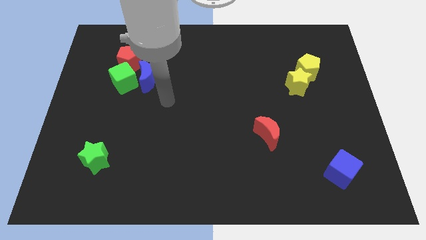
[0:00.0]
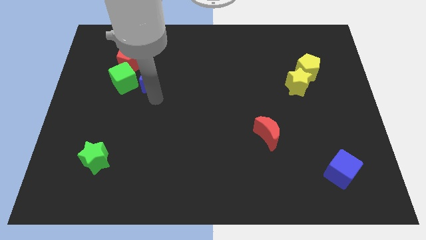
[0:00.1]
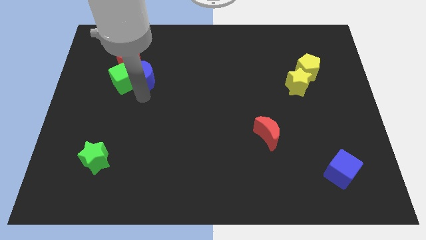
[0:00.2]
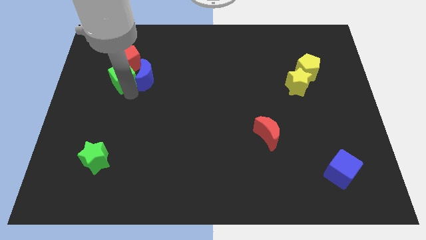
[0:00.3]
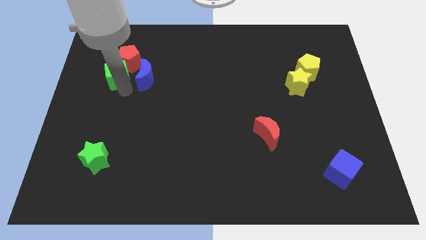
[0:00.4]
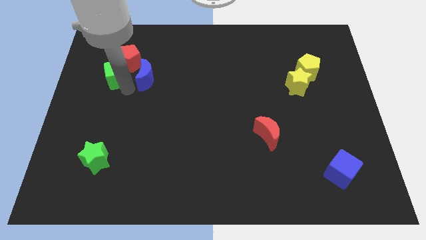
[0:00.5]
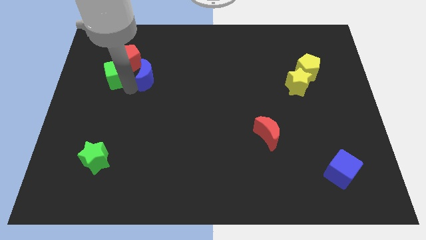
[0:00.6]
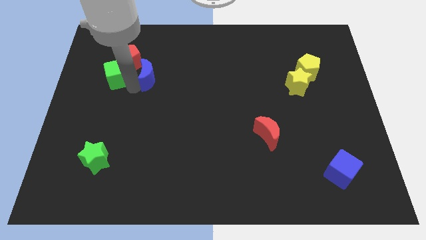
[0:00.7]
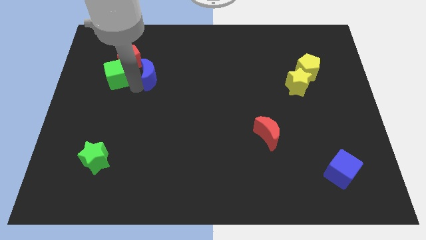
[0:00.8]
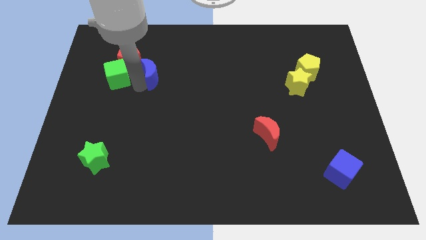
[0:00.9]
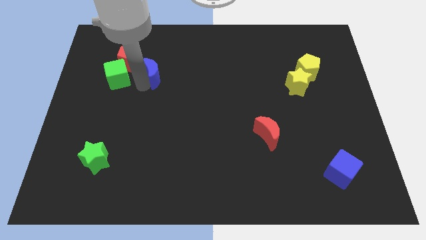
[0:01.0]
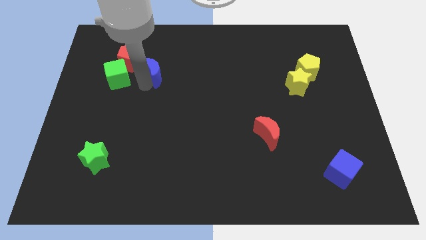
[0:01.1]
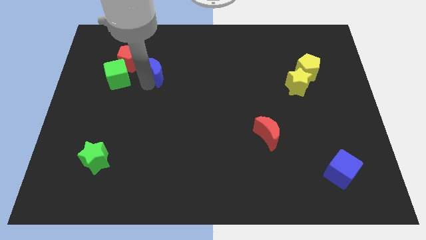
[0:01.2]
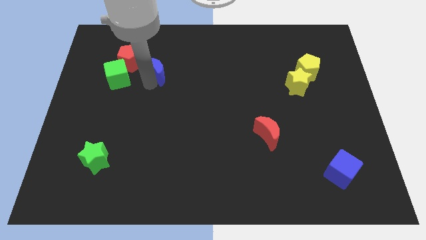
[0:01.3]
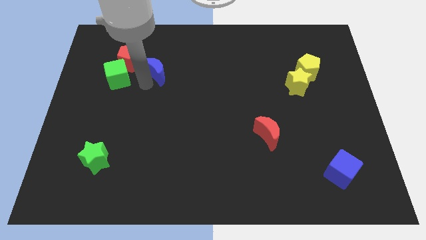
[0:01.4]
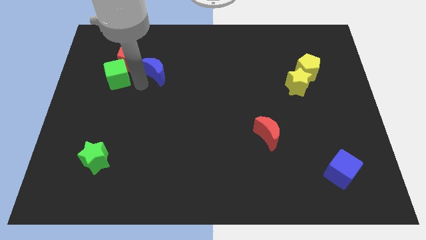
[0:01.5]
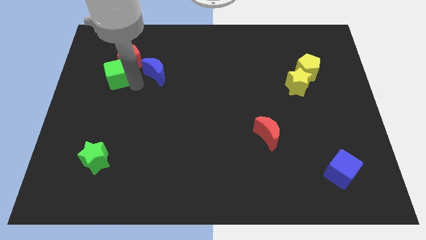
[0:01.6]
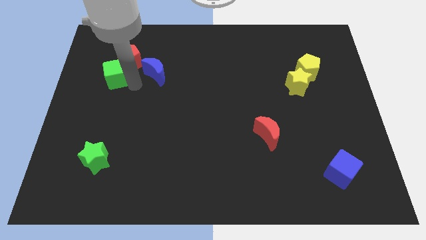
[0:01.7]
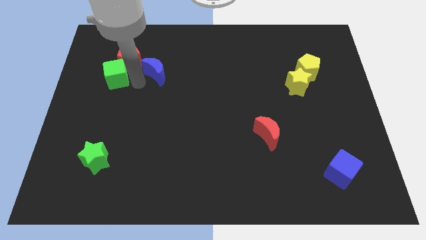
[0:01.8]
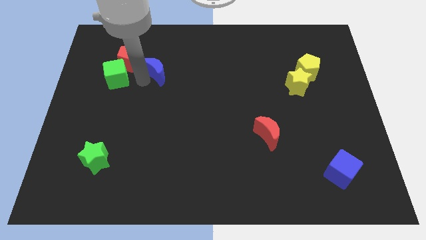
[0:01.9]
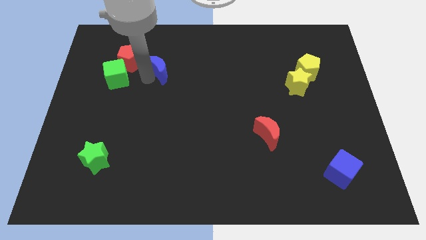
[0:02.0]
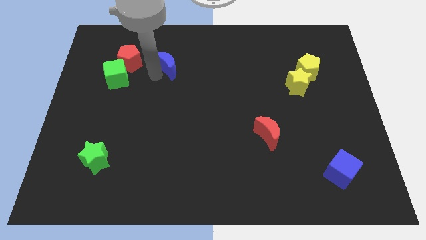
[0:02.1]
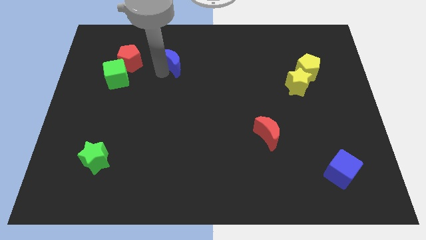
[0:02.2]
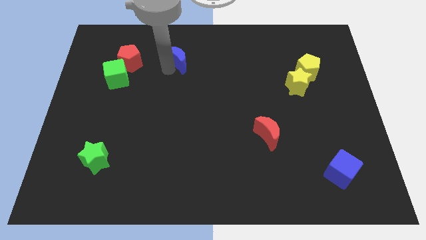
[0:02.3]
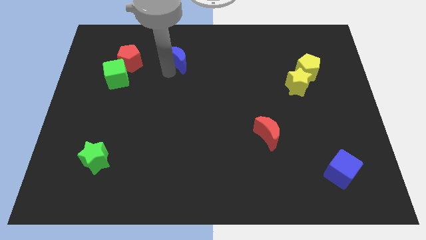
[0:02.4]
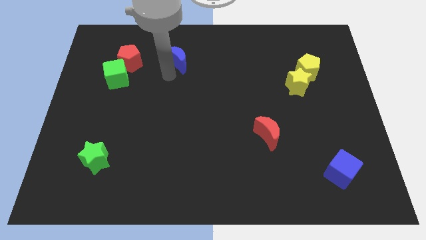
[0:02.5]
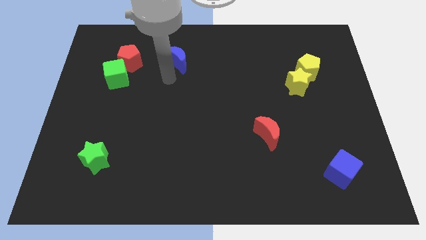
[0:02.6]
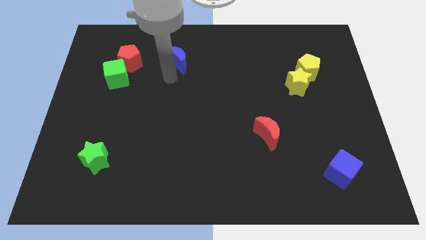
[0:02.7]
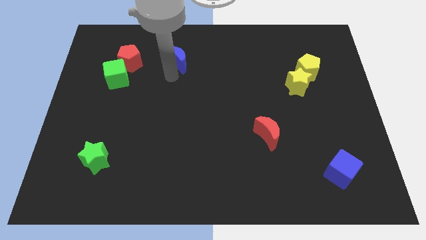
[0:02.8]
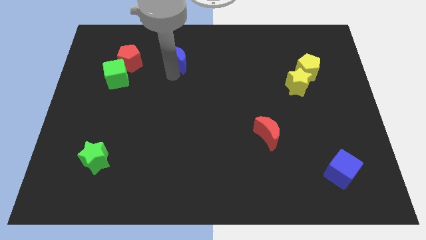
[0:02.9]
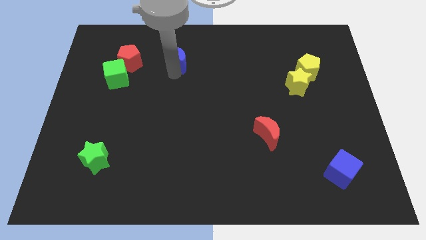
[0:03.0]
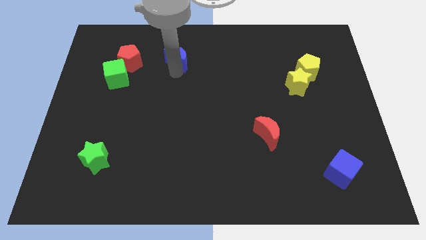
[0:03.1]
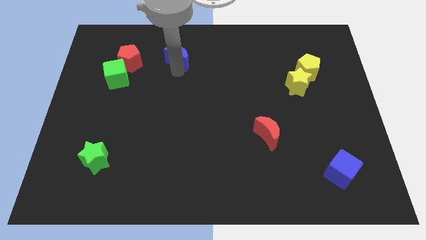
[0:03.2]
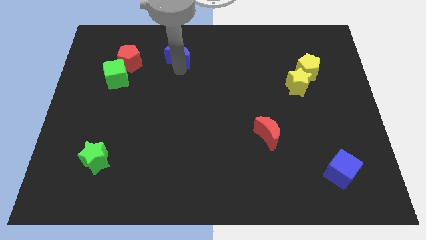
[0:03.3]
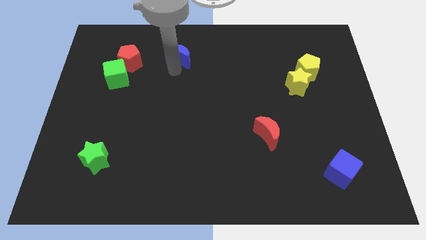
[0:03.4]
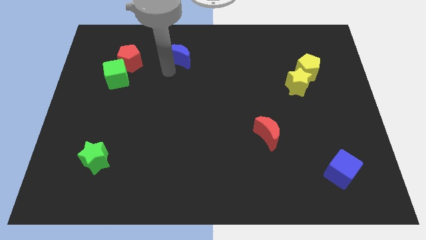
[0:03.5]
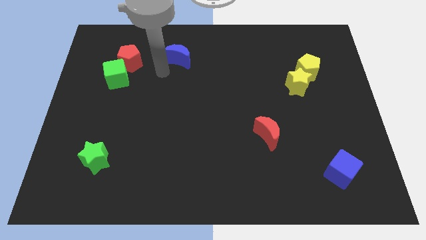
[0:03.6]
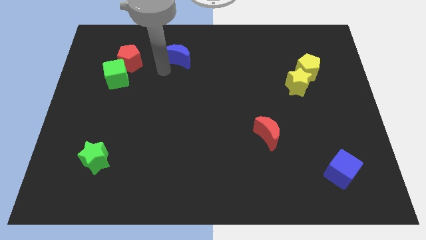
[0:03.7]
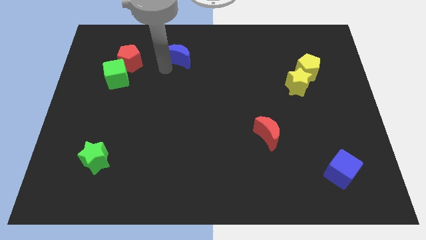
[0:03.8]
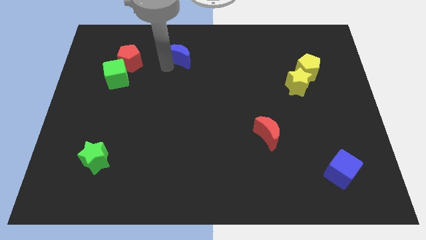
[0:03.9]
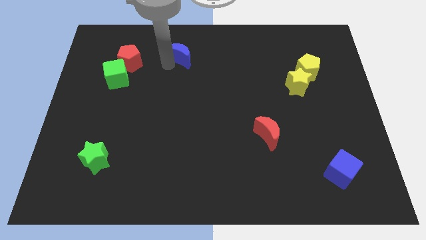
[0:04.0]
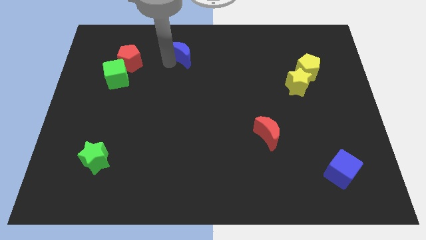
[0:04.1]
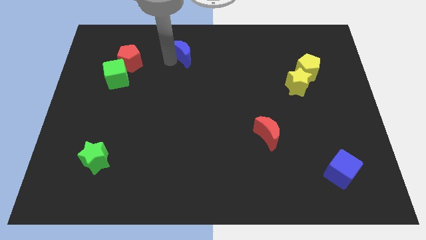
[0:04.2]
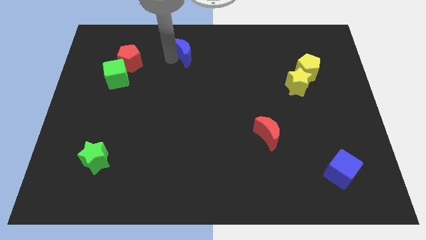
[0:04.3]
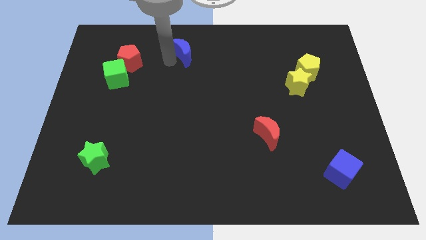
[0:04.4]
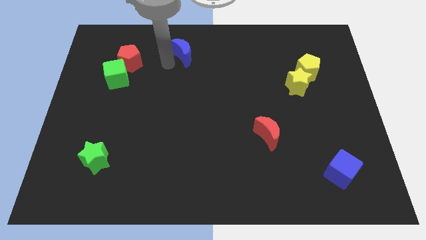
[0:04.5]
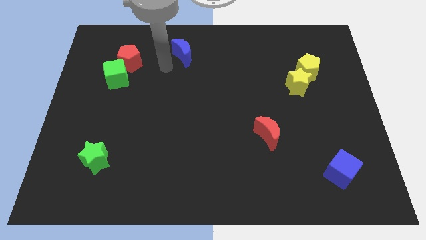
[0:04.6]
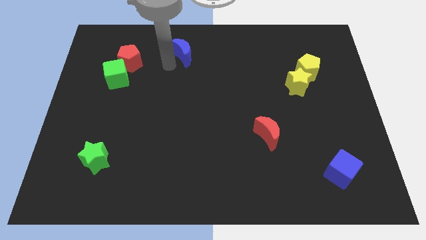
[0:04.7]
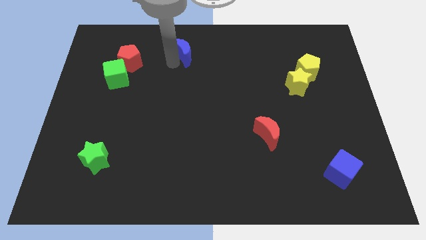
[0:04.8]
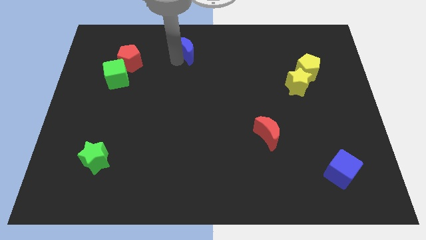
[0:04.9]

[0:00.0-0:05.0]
push the blue moon to the top side

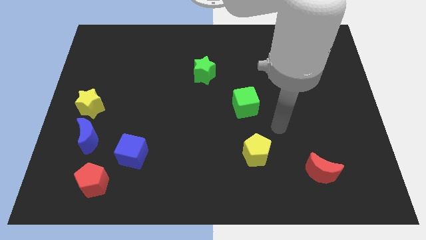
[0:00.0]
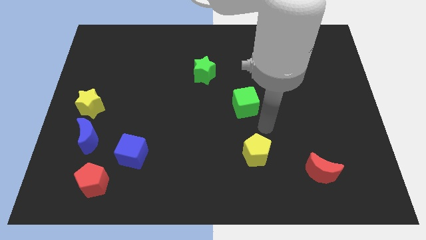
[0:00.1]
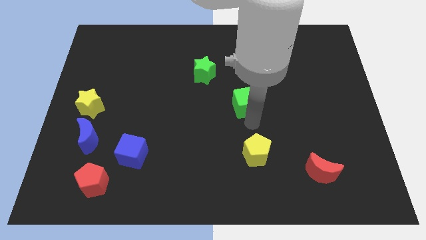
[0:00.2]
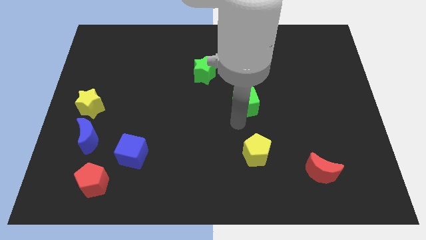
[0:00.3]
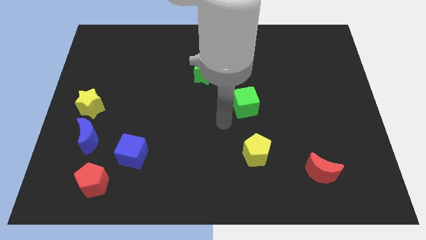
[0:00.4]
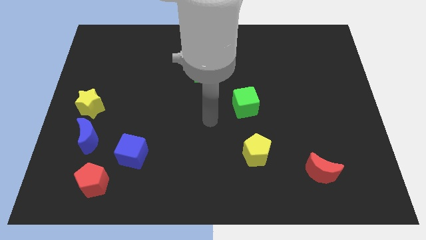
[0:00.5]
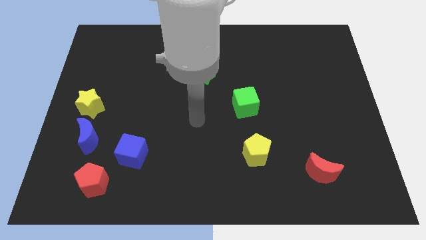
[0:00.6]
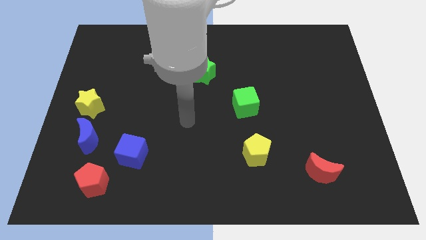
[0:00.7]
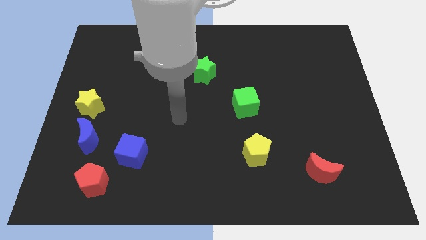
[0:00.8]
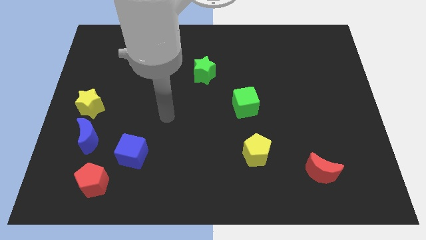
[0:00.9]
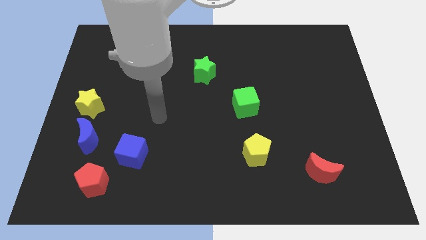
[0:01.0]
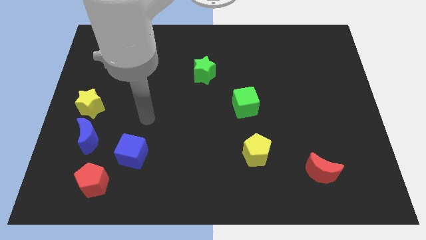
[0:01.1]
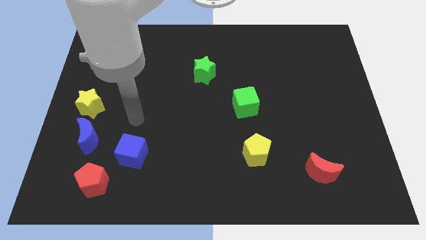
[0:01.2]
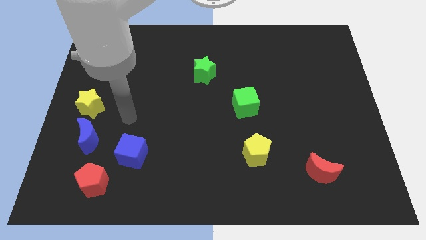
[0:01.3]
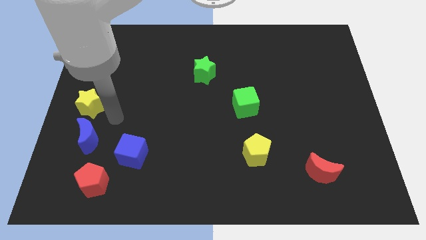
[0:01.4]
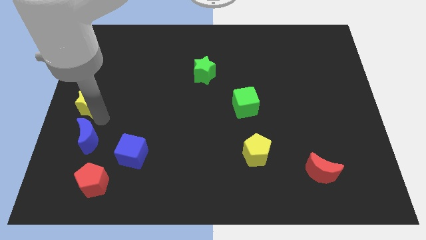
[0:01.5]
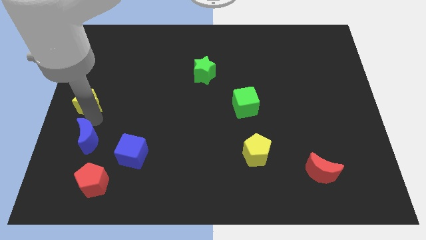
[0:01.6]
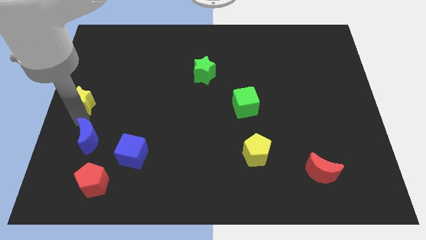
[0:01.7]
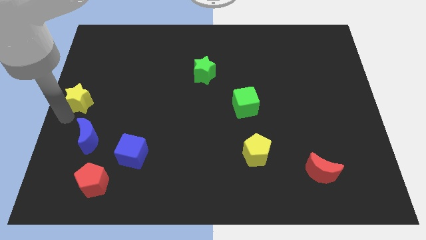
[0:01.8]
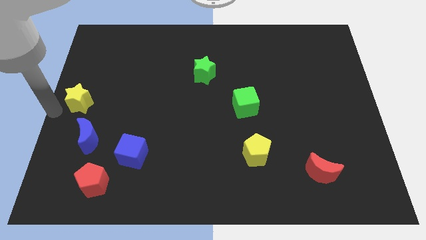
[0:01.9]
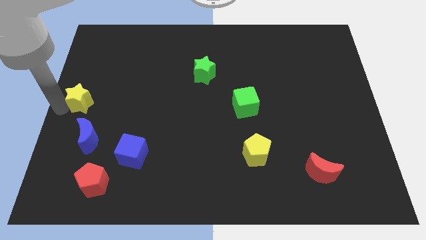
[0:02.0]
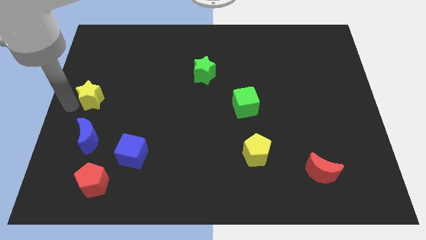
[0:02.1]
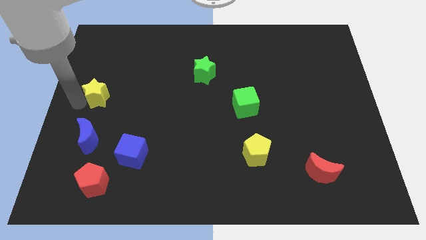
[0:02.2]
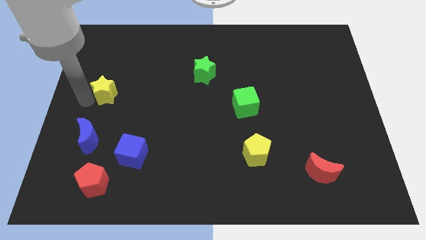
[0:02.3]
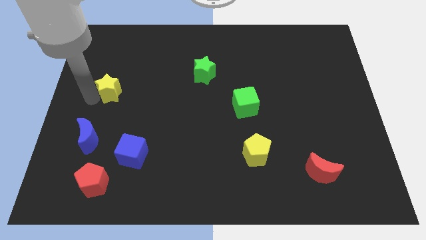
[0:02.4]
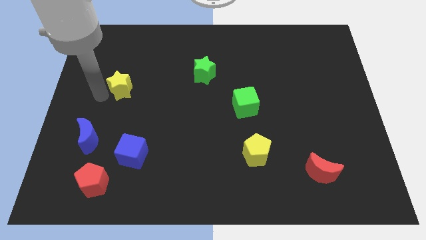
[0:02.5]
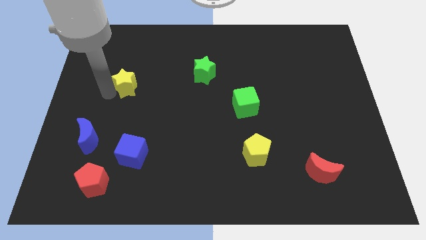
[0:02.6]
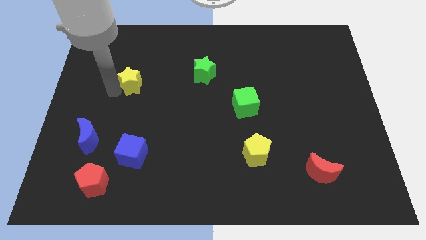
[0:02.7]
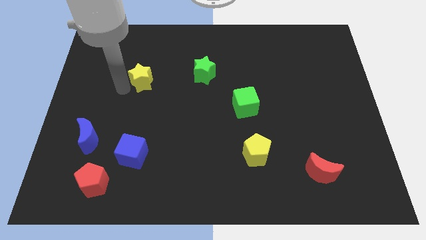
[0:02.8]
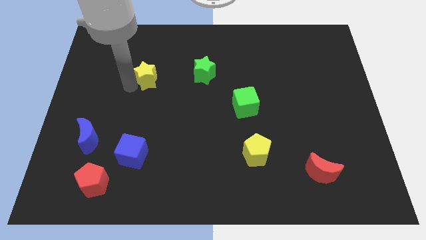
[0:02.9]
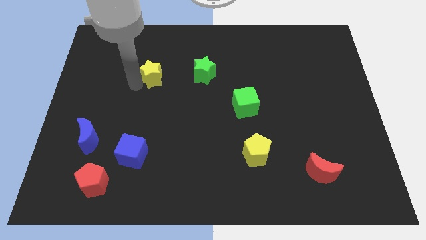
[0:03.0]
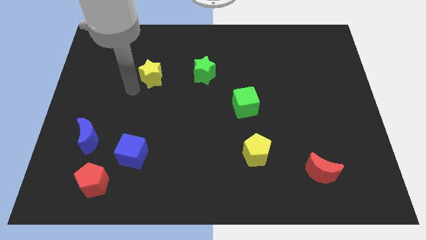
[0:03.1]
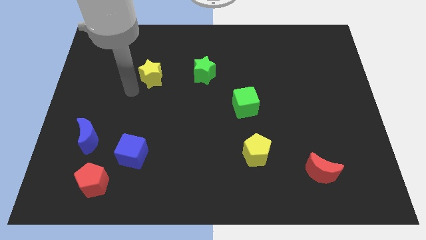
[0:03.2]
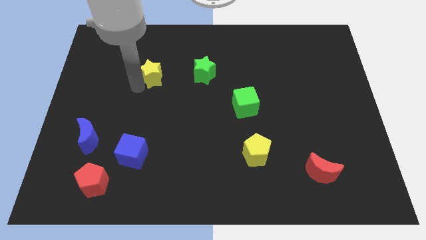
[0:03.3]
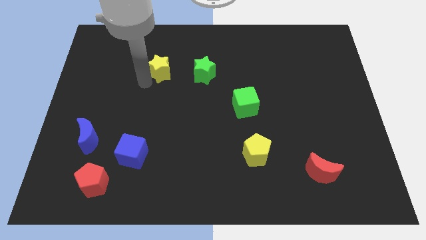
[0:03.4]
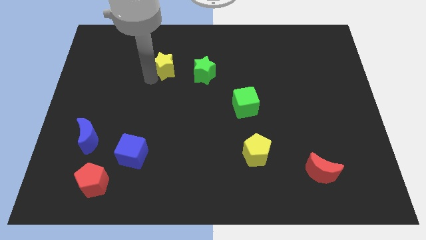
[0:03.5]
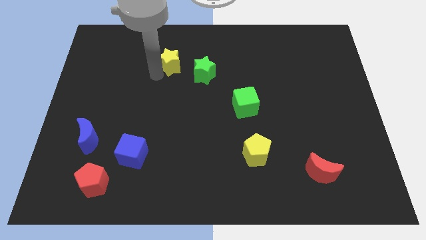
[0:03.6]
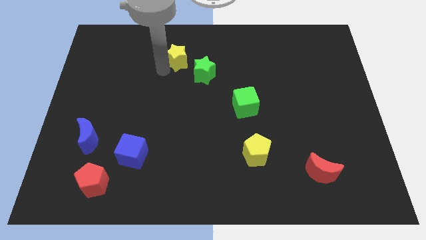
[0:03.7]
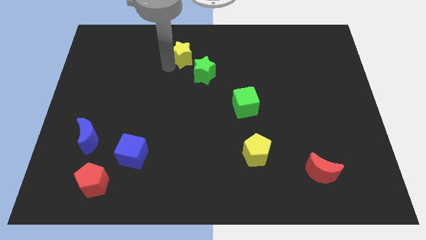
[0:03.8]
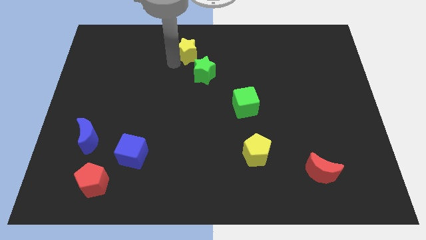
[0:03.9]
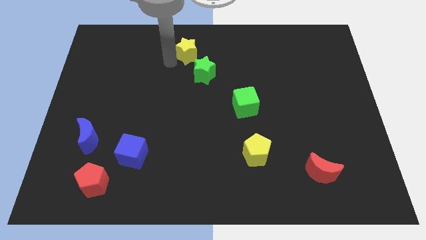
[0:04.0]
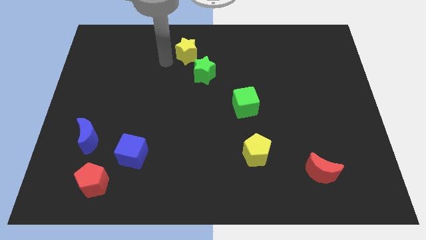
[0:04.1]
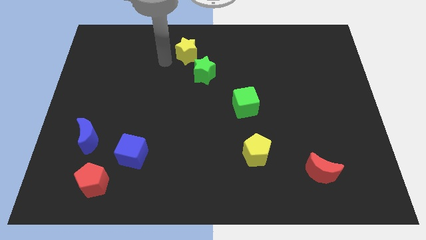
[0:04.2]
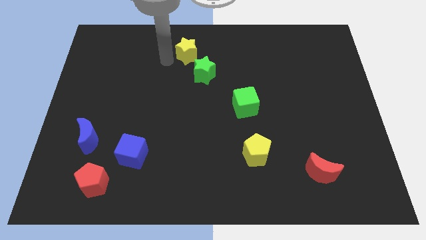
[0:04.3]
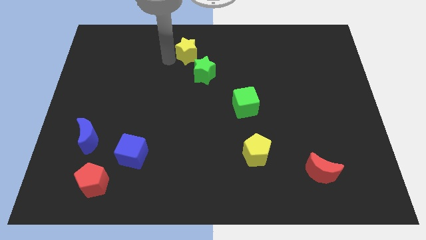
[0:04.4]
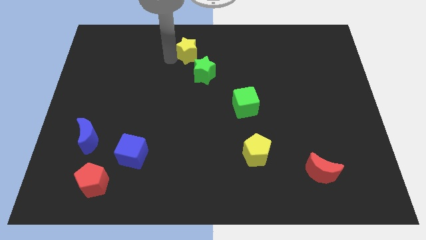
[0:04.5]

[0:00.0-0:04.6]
push the yellow star to the top side
